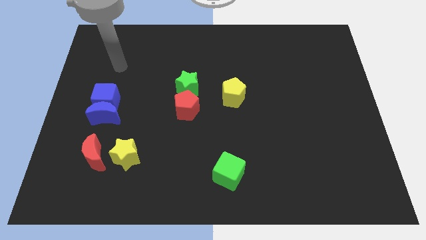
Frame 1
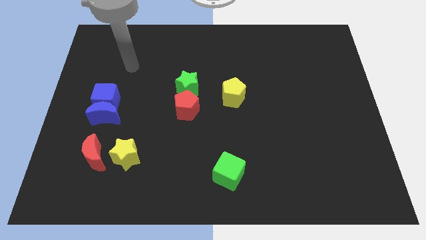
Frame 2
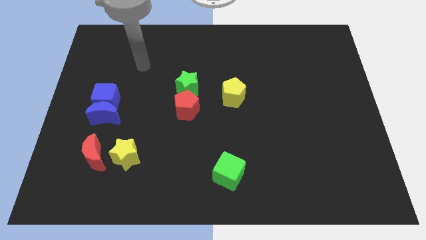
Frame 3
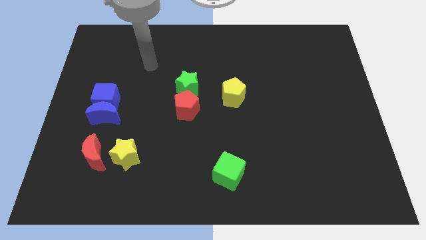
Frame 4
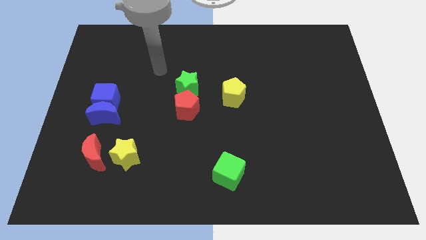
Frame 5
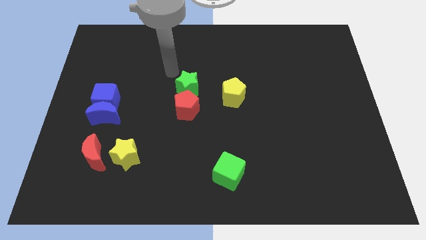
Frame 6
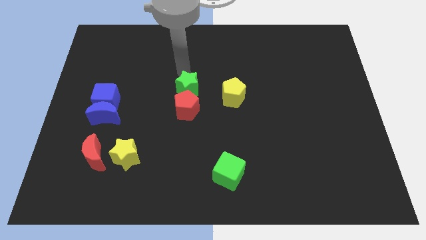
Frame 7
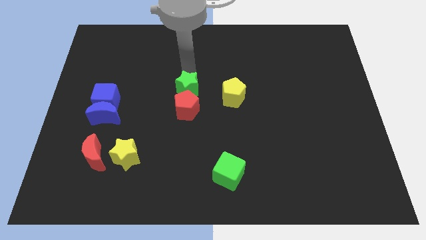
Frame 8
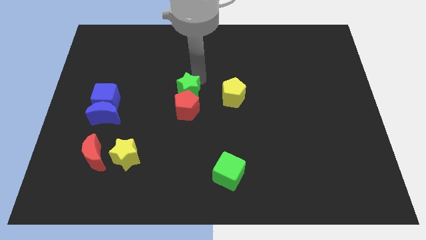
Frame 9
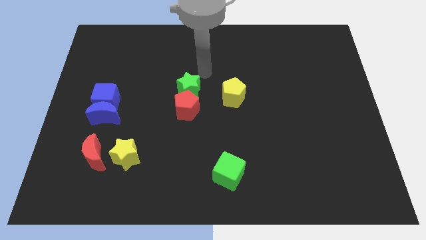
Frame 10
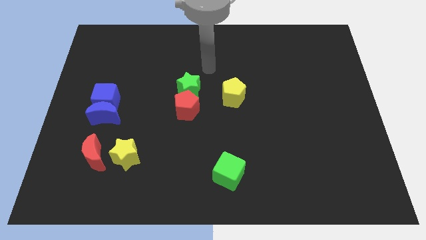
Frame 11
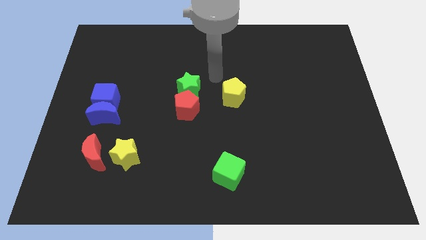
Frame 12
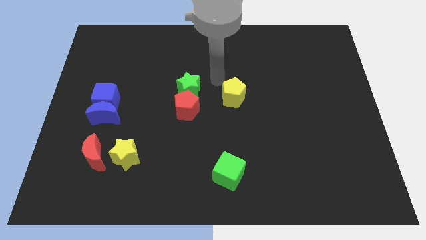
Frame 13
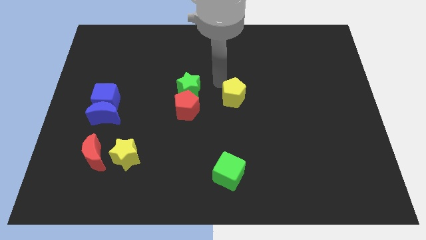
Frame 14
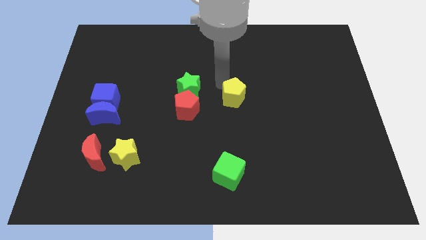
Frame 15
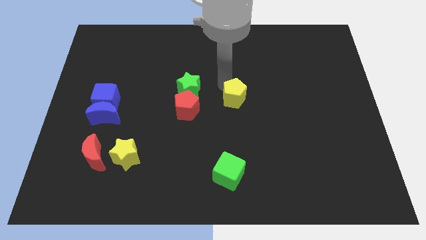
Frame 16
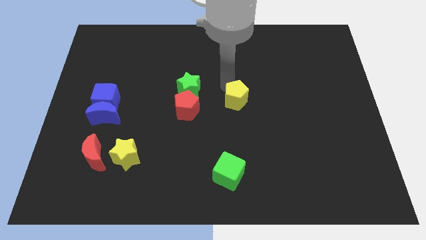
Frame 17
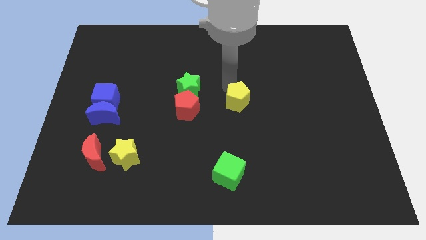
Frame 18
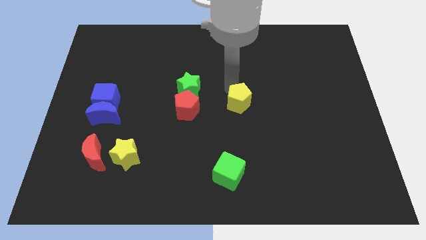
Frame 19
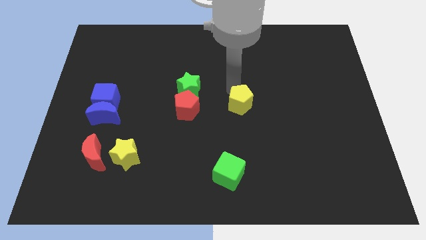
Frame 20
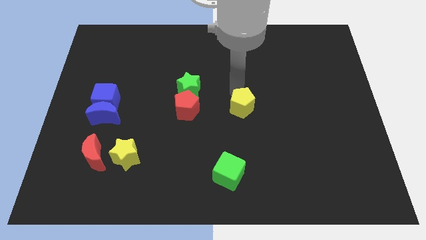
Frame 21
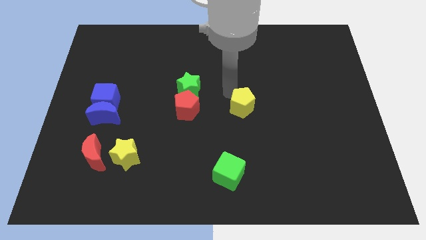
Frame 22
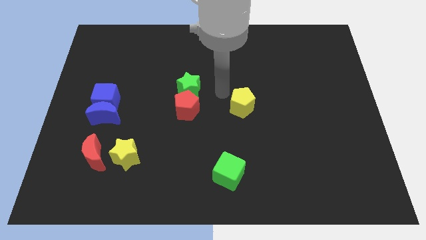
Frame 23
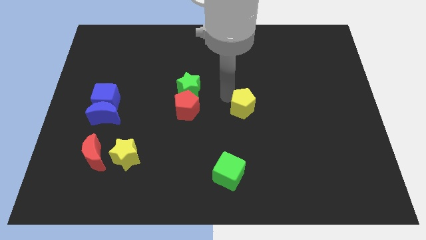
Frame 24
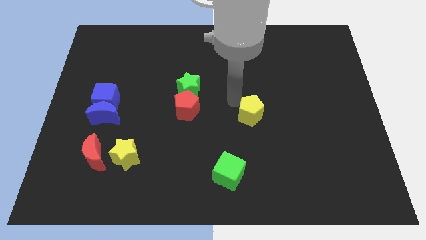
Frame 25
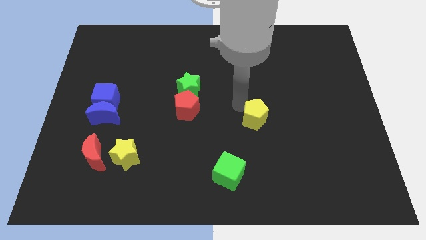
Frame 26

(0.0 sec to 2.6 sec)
slide the yellow pentagon slightly down and right

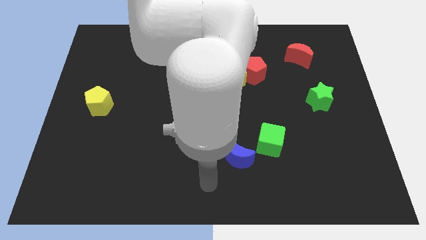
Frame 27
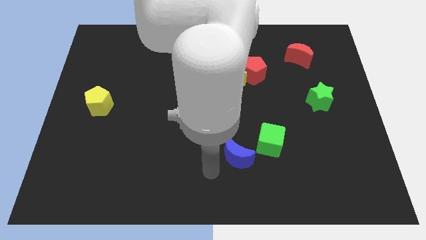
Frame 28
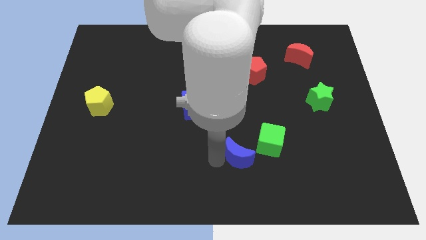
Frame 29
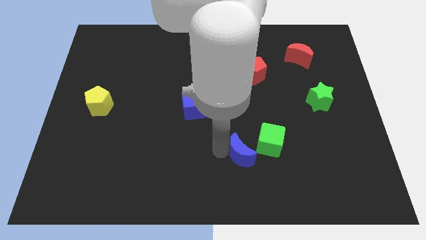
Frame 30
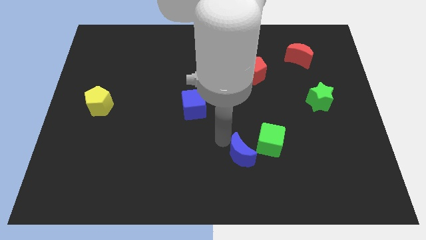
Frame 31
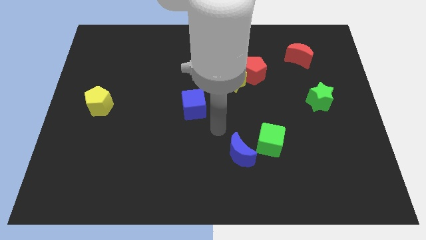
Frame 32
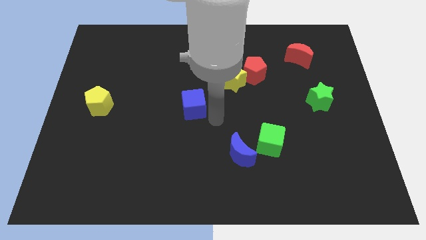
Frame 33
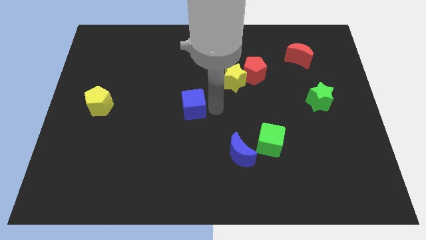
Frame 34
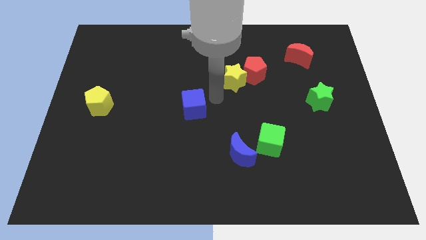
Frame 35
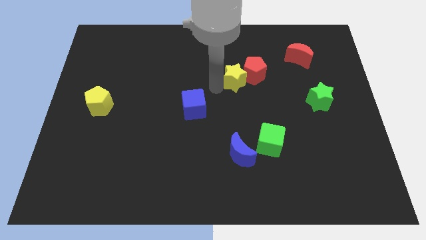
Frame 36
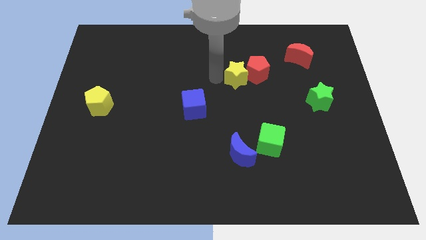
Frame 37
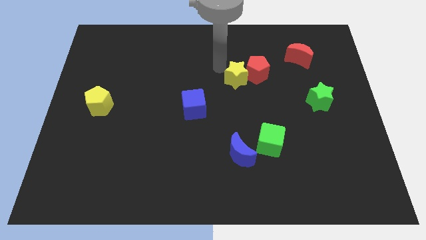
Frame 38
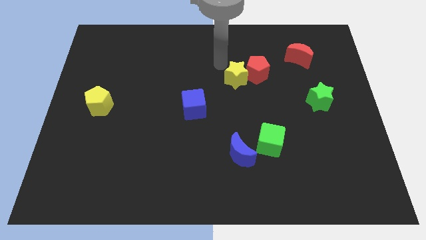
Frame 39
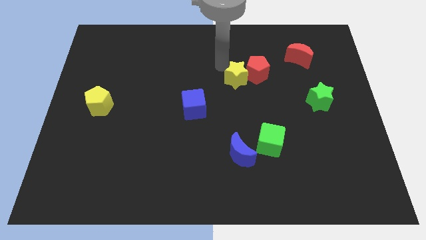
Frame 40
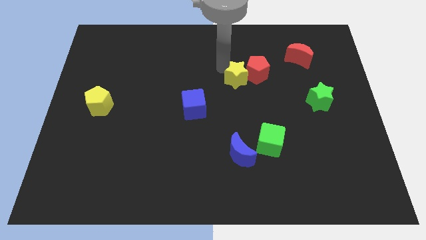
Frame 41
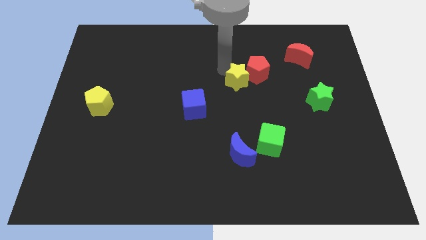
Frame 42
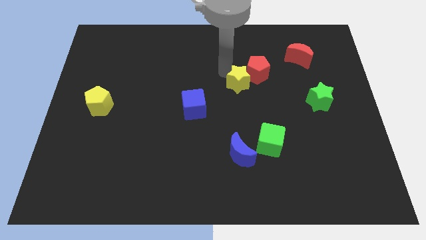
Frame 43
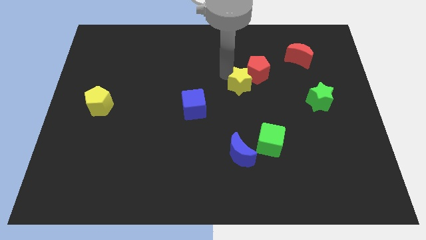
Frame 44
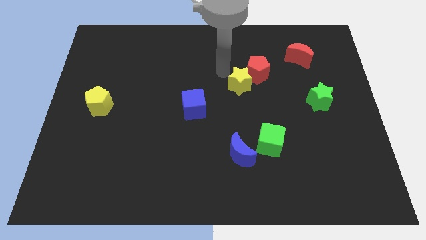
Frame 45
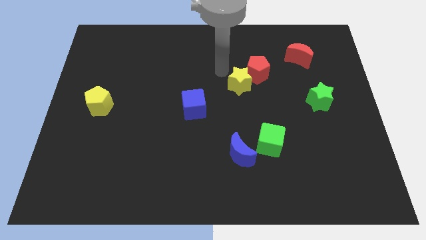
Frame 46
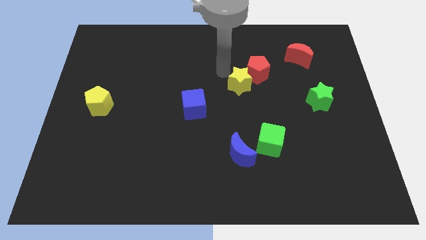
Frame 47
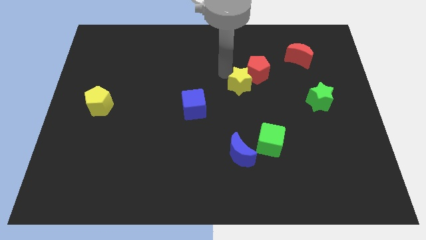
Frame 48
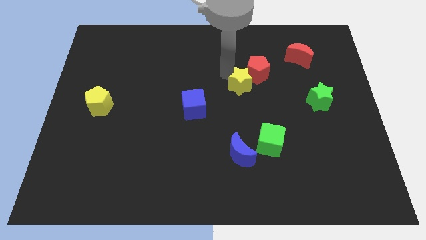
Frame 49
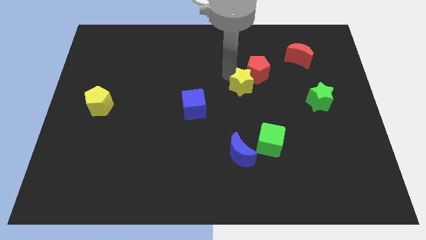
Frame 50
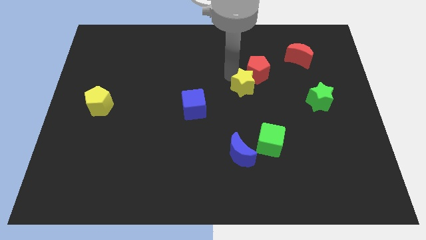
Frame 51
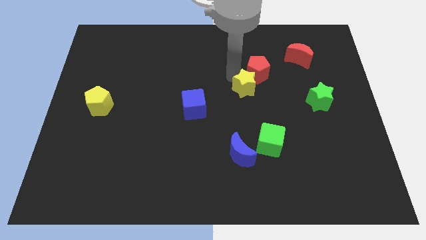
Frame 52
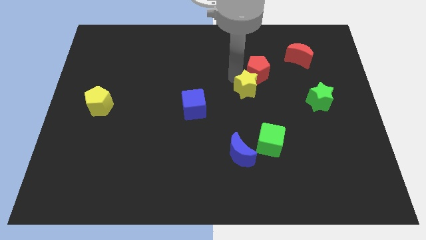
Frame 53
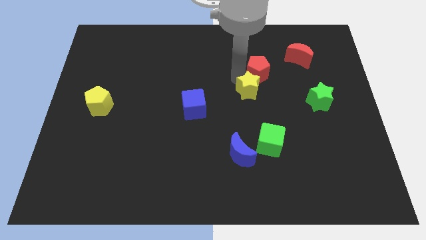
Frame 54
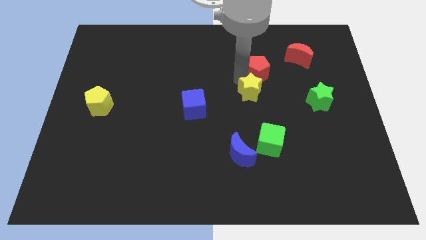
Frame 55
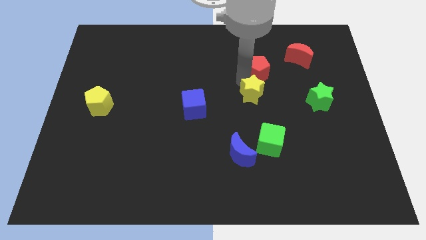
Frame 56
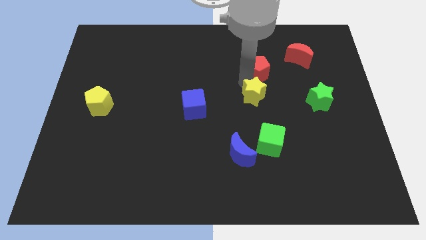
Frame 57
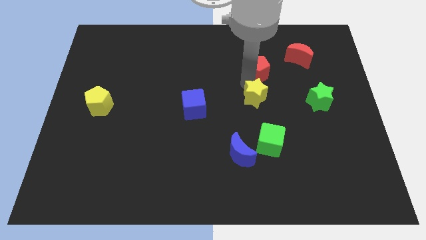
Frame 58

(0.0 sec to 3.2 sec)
slide the yellow star a little bit down and right diagonally

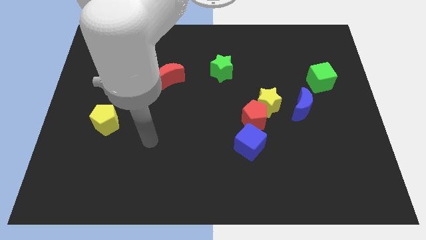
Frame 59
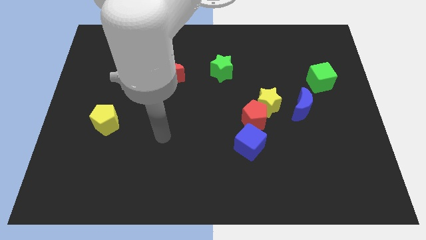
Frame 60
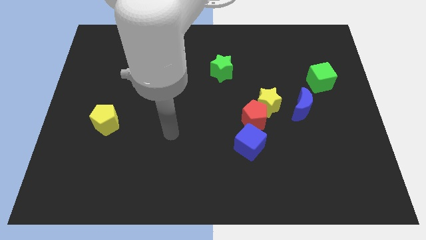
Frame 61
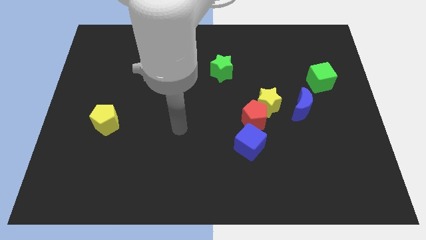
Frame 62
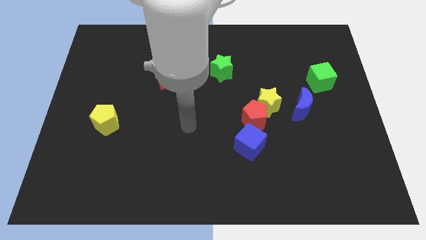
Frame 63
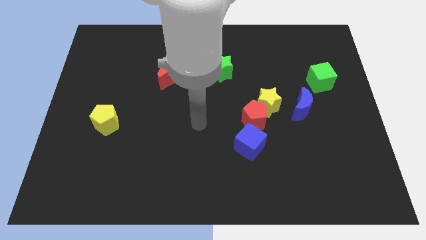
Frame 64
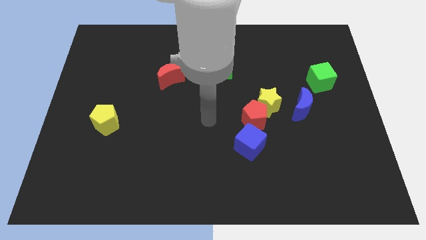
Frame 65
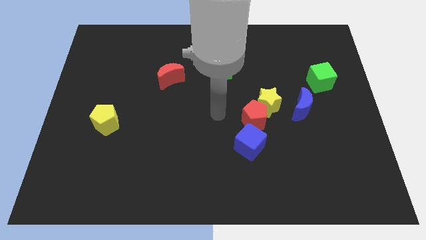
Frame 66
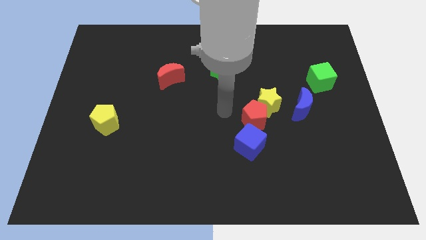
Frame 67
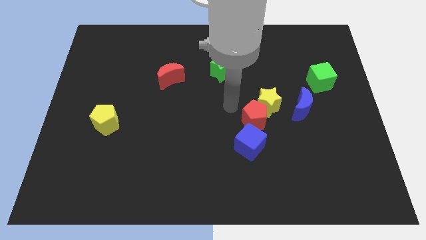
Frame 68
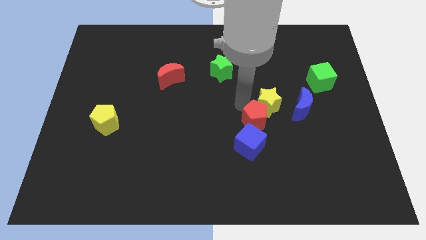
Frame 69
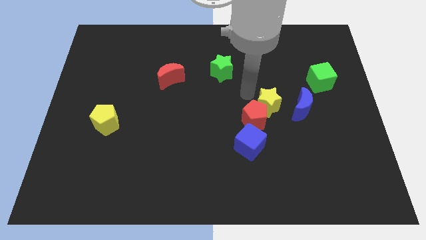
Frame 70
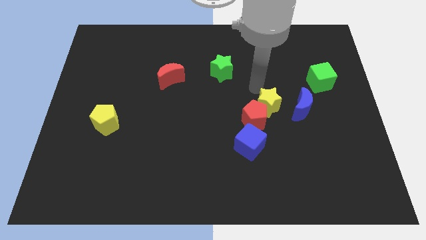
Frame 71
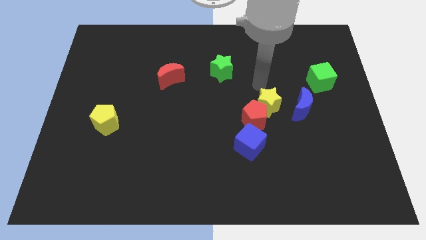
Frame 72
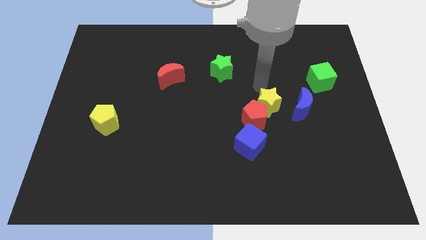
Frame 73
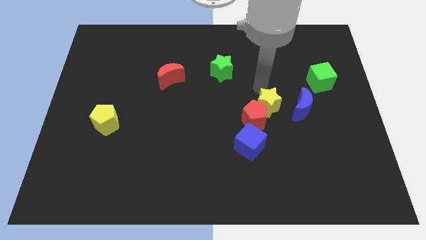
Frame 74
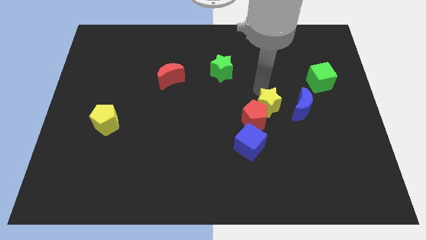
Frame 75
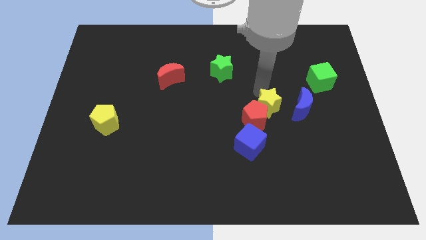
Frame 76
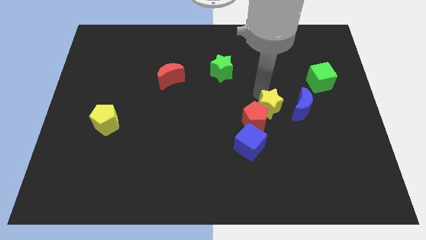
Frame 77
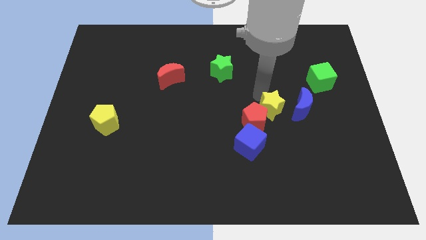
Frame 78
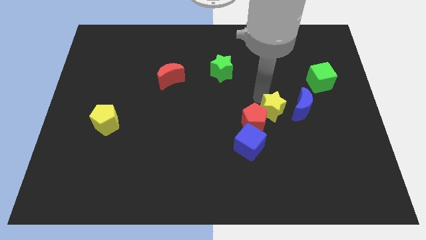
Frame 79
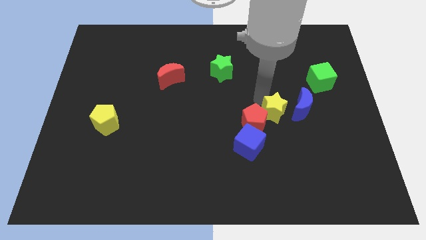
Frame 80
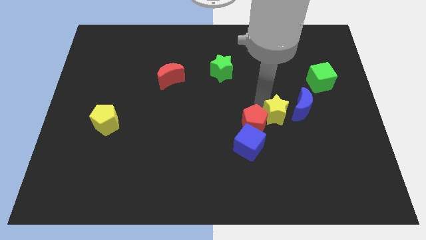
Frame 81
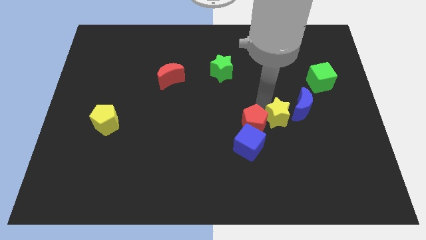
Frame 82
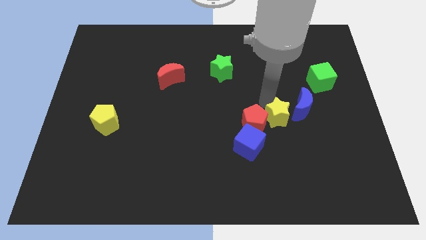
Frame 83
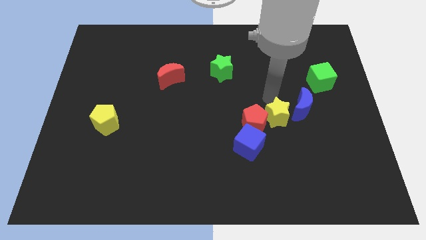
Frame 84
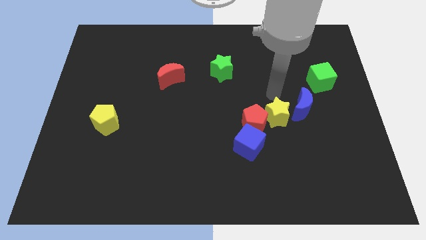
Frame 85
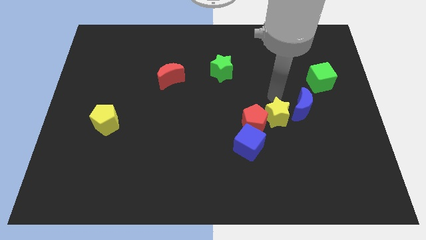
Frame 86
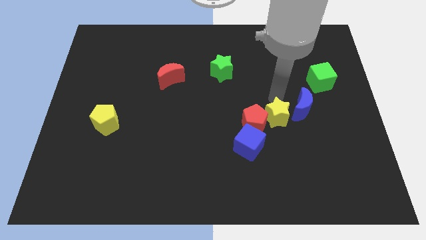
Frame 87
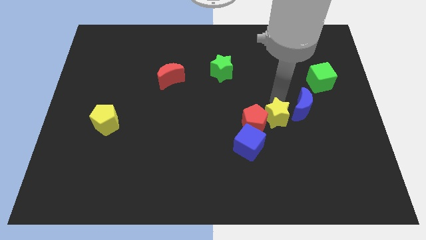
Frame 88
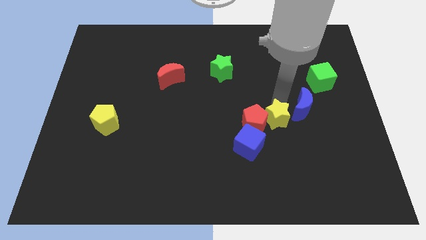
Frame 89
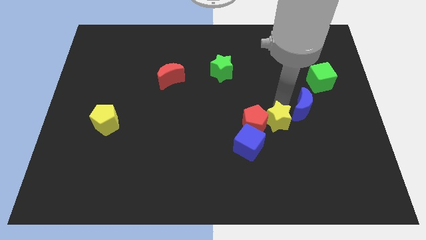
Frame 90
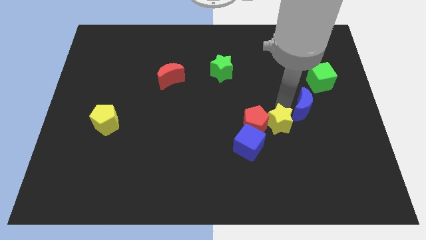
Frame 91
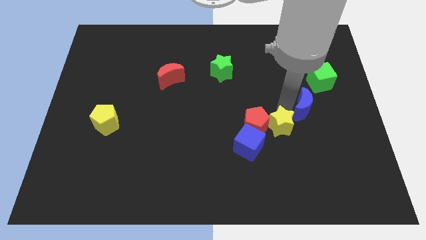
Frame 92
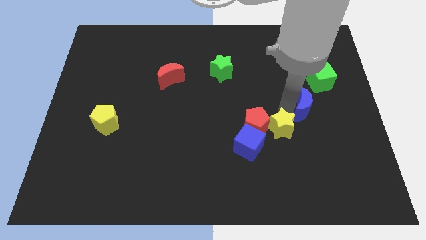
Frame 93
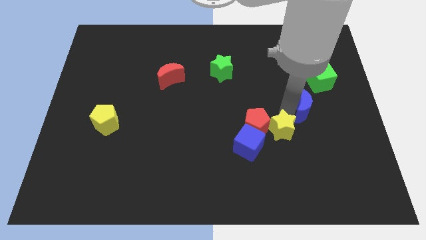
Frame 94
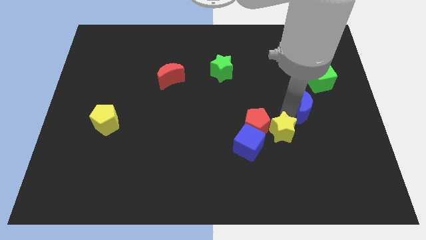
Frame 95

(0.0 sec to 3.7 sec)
push the yellow star downwards slightly
